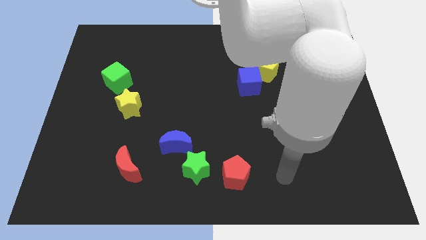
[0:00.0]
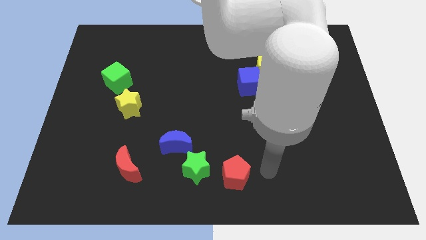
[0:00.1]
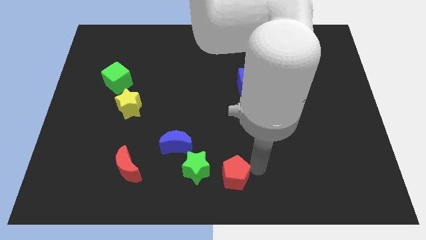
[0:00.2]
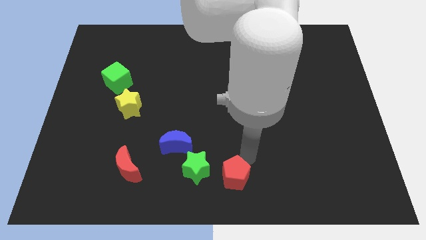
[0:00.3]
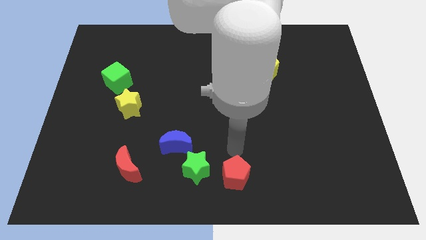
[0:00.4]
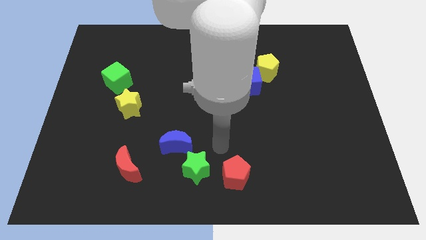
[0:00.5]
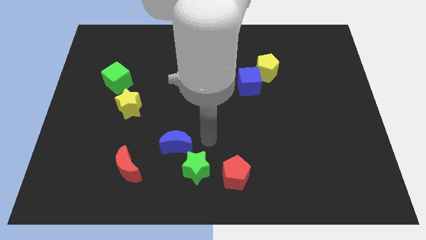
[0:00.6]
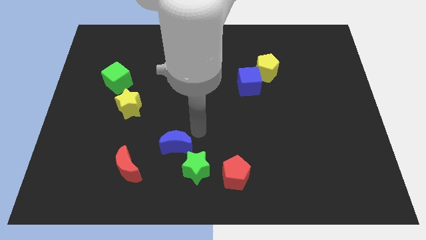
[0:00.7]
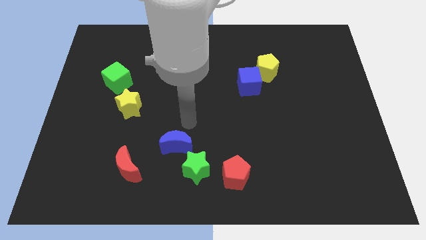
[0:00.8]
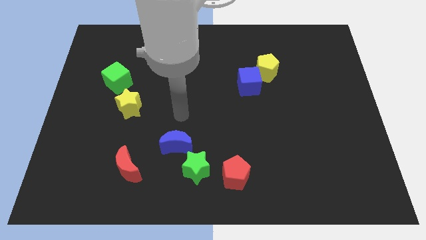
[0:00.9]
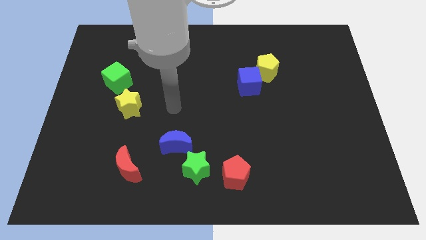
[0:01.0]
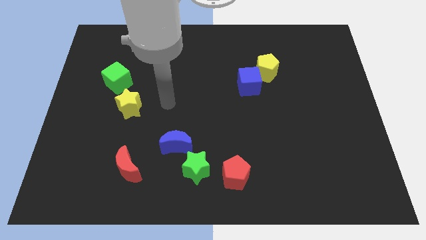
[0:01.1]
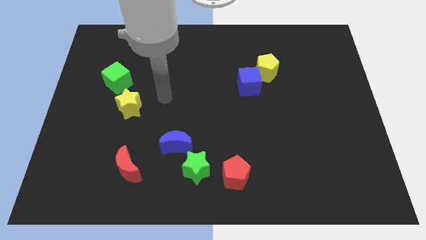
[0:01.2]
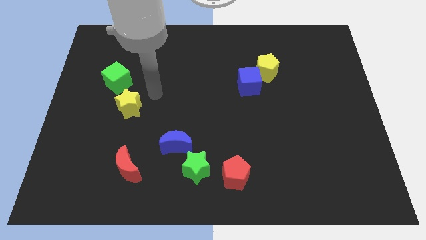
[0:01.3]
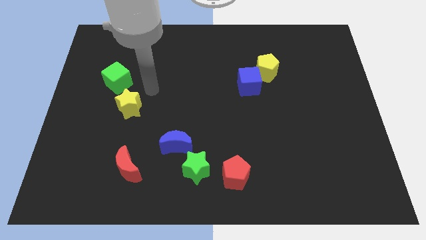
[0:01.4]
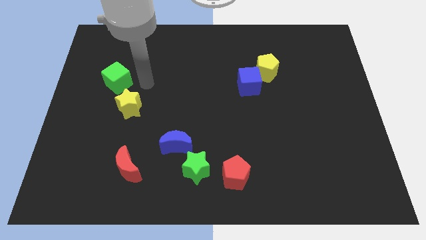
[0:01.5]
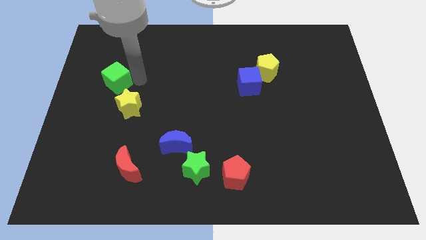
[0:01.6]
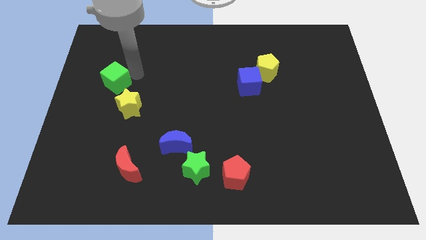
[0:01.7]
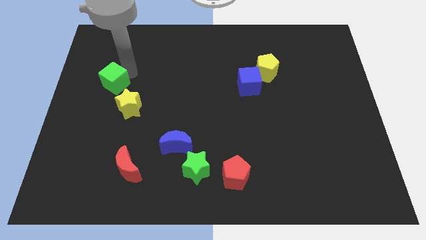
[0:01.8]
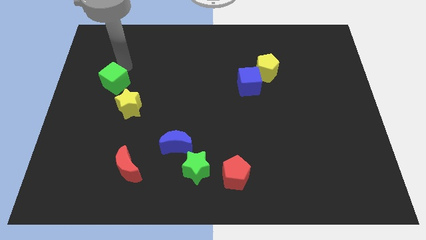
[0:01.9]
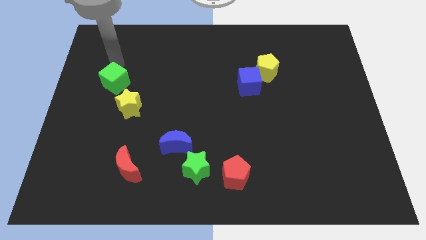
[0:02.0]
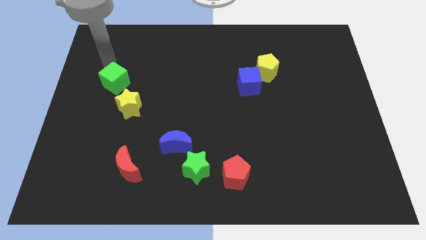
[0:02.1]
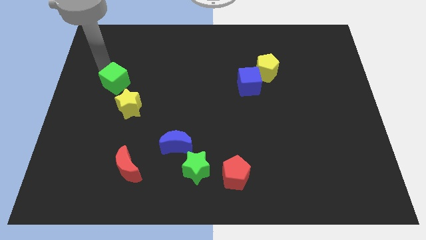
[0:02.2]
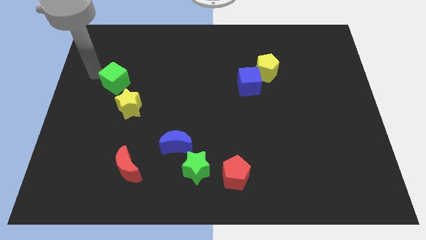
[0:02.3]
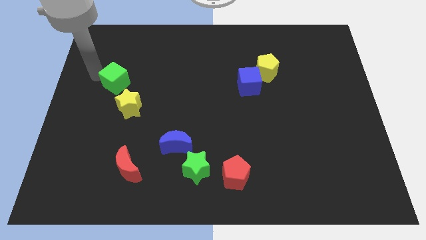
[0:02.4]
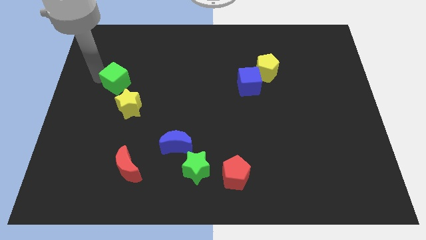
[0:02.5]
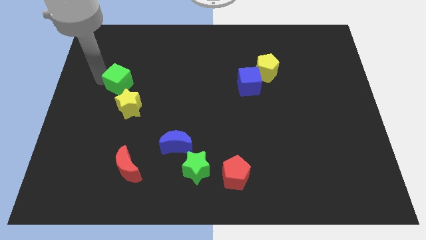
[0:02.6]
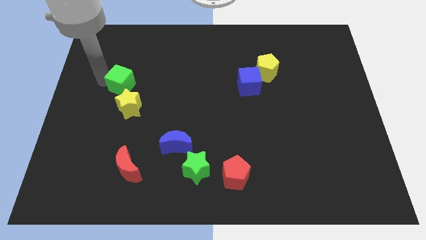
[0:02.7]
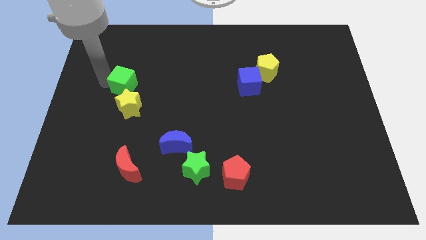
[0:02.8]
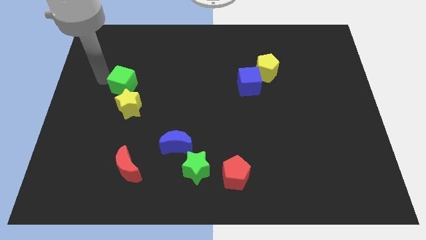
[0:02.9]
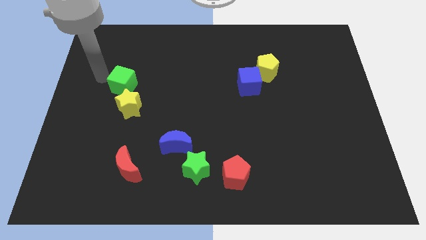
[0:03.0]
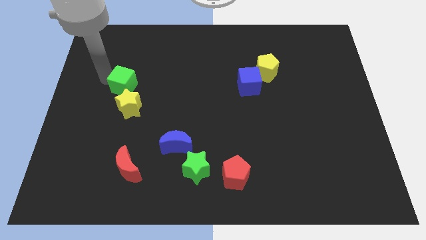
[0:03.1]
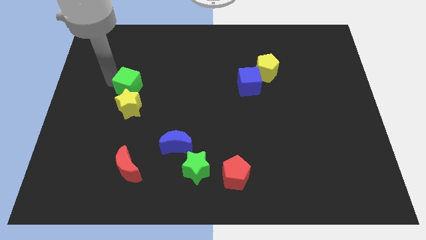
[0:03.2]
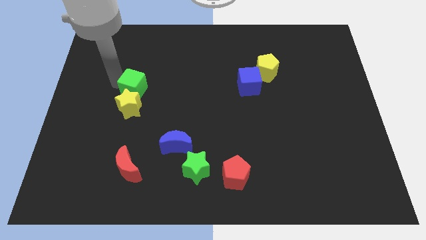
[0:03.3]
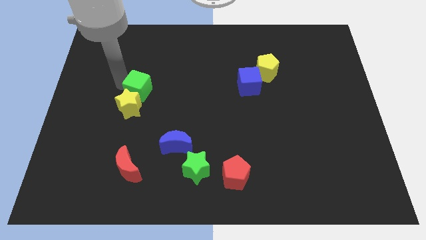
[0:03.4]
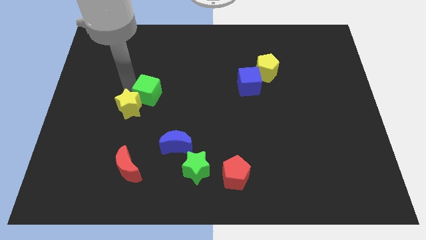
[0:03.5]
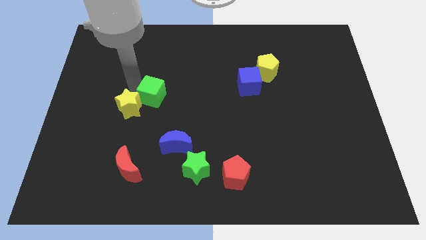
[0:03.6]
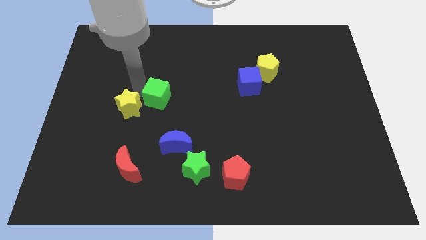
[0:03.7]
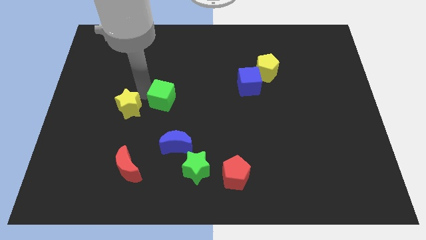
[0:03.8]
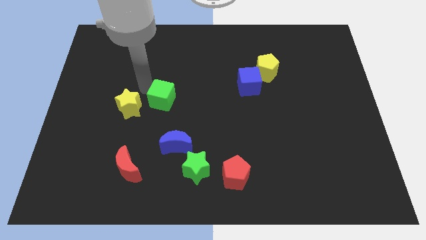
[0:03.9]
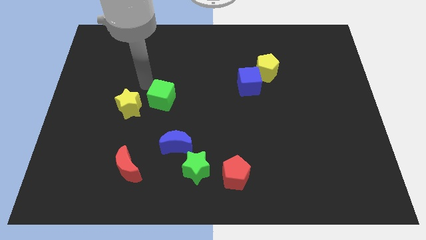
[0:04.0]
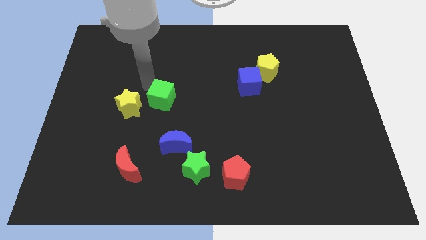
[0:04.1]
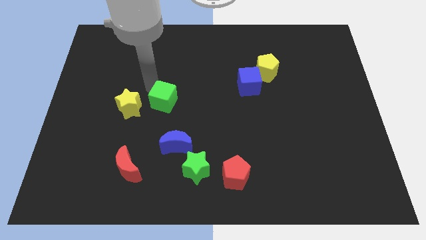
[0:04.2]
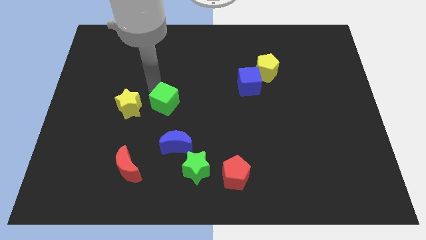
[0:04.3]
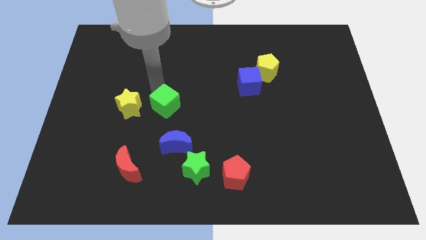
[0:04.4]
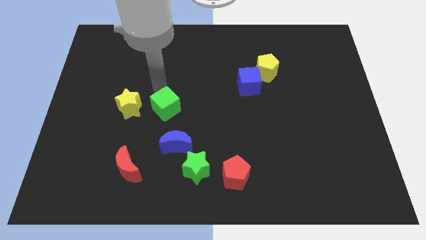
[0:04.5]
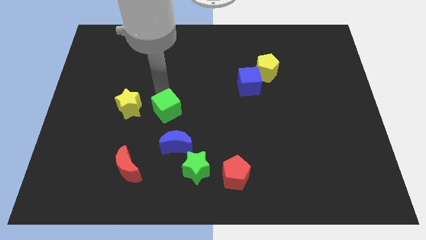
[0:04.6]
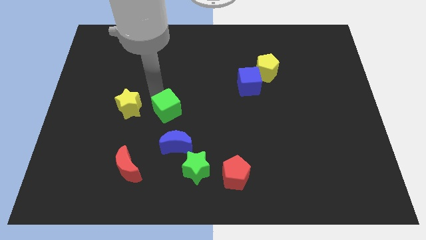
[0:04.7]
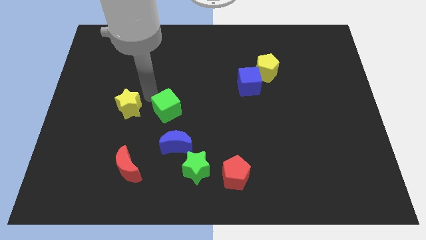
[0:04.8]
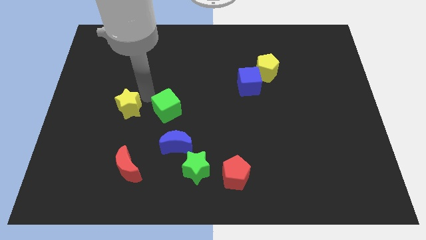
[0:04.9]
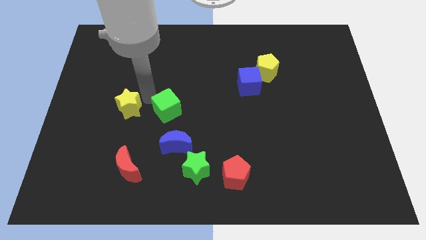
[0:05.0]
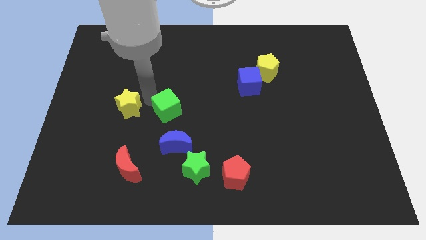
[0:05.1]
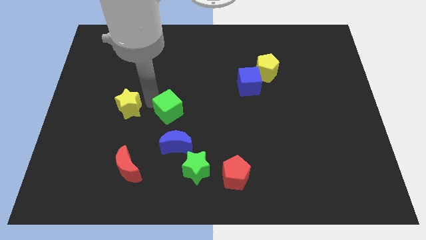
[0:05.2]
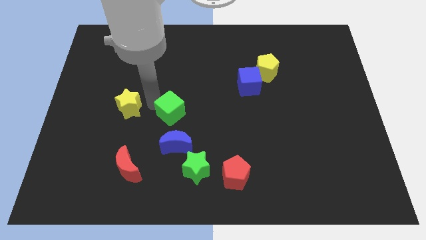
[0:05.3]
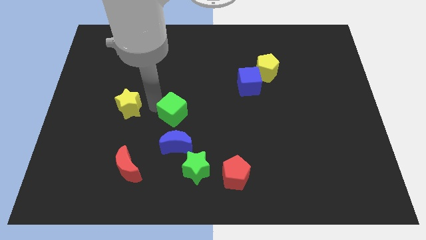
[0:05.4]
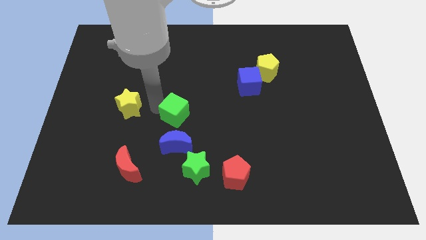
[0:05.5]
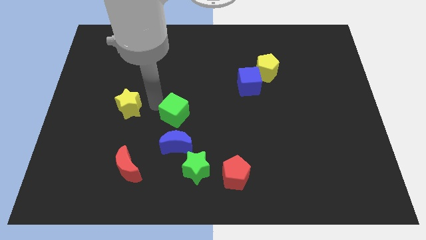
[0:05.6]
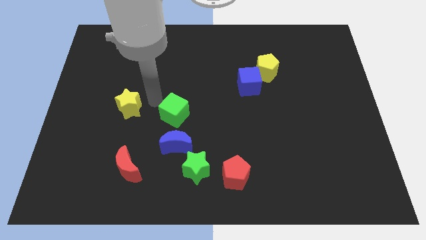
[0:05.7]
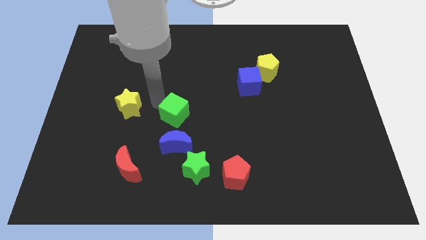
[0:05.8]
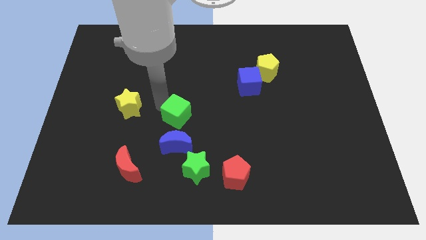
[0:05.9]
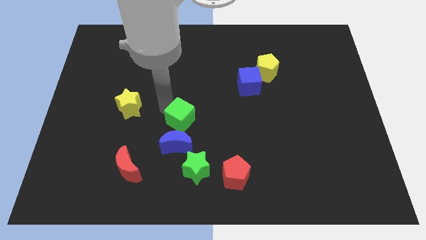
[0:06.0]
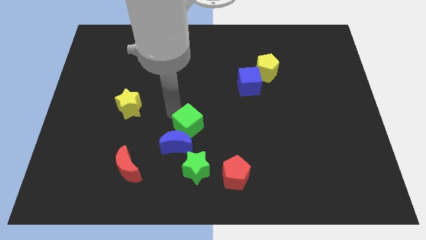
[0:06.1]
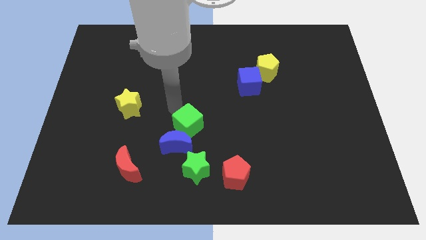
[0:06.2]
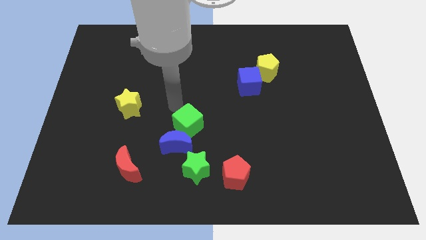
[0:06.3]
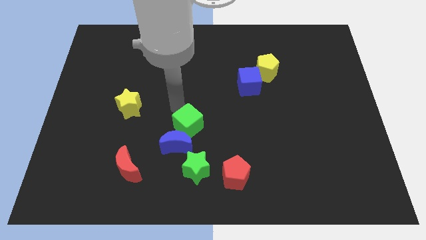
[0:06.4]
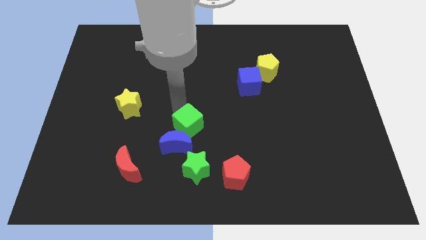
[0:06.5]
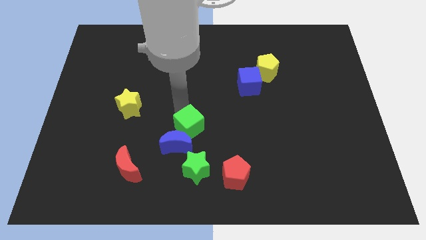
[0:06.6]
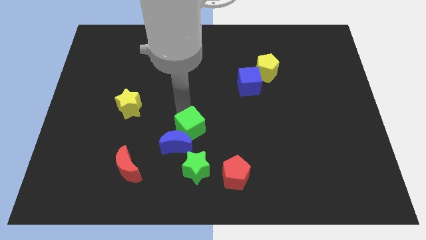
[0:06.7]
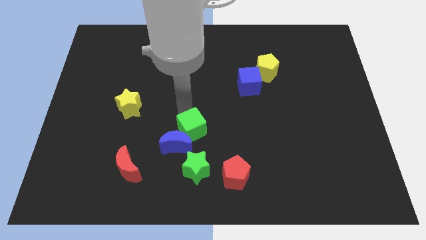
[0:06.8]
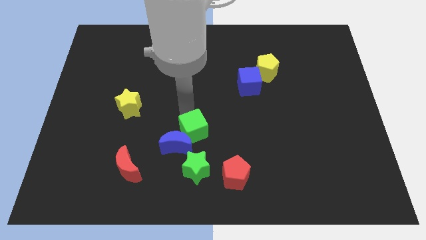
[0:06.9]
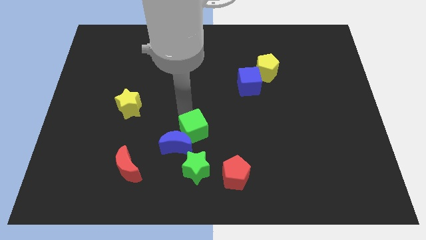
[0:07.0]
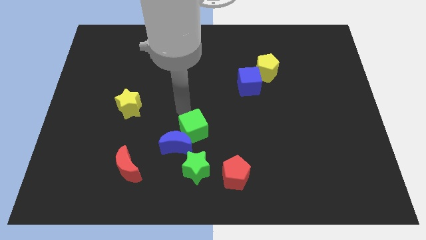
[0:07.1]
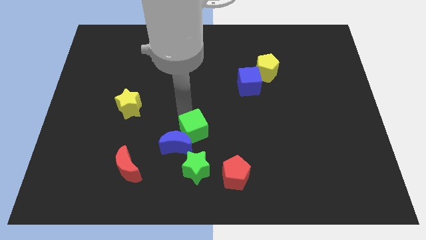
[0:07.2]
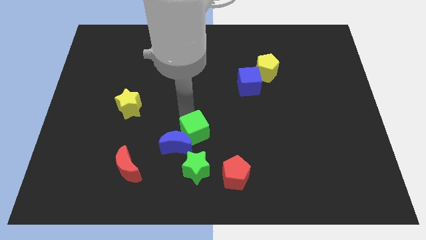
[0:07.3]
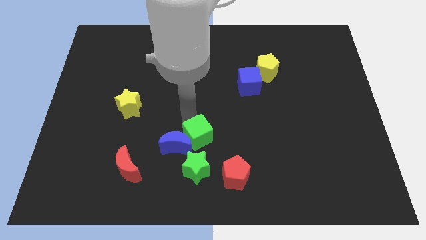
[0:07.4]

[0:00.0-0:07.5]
push the green cube to the top left of the red pentagon
